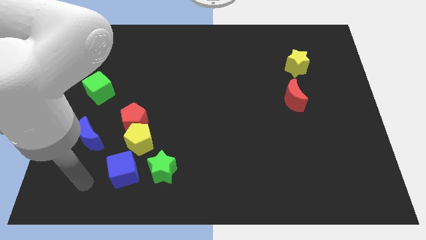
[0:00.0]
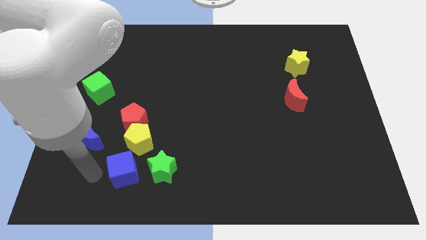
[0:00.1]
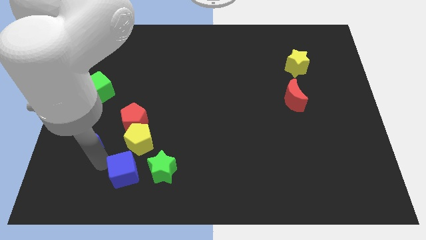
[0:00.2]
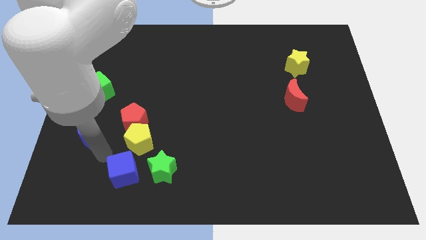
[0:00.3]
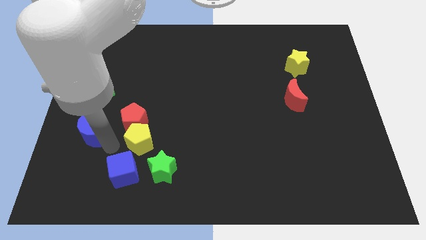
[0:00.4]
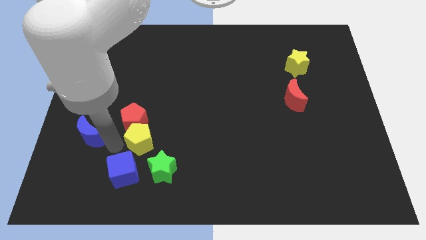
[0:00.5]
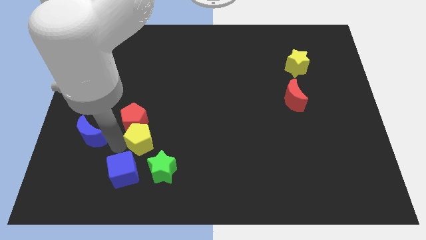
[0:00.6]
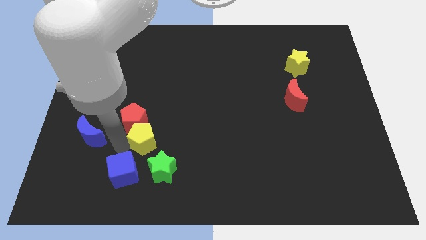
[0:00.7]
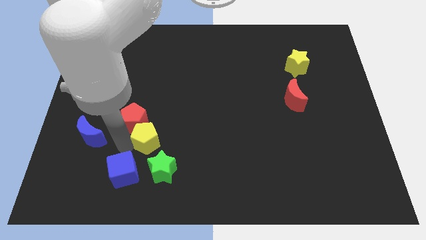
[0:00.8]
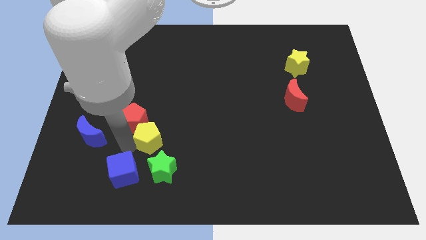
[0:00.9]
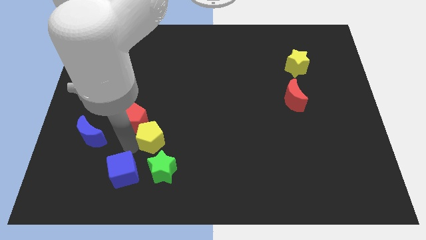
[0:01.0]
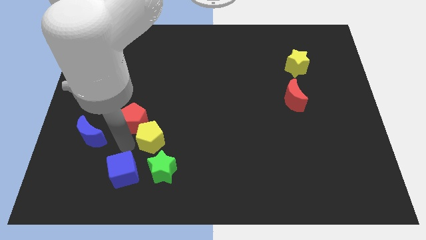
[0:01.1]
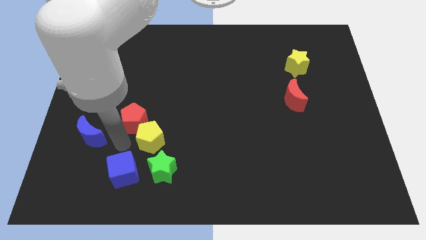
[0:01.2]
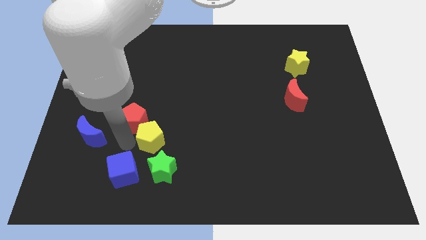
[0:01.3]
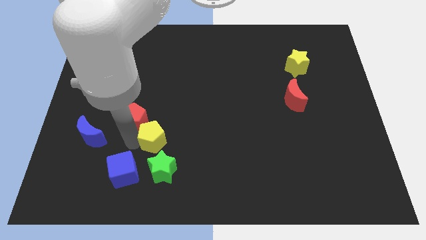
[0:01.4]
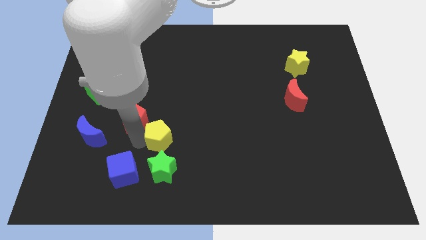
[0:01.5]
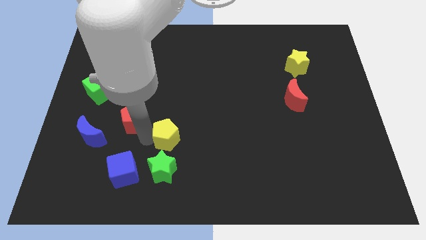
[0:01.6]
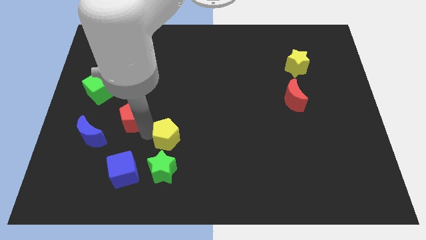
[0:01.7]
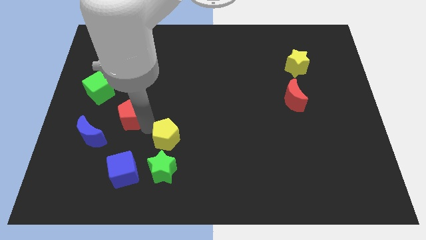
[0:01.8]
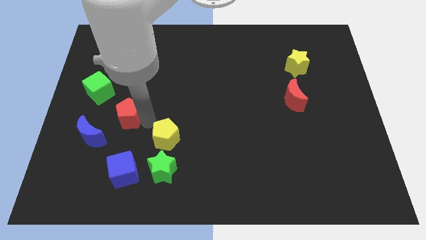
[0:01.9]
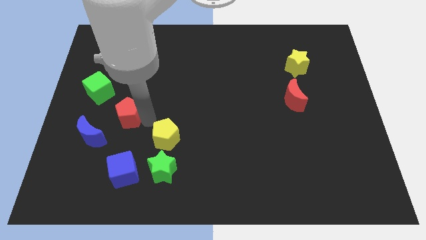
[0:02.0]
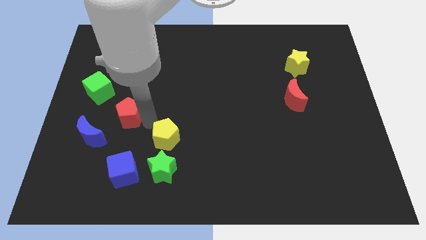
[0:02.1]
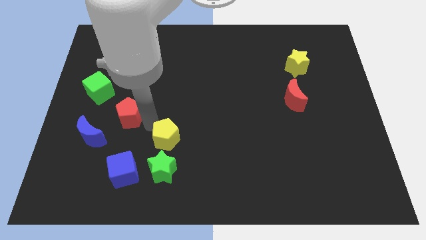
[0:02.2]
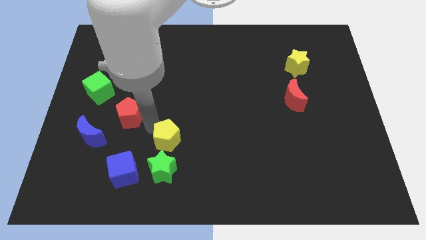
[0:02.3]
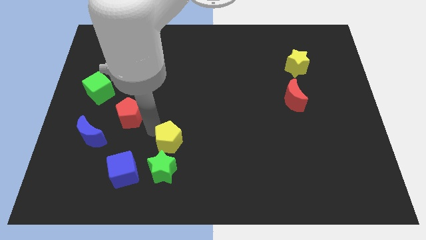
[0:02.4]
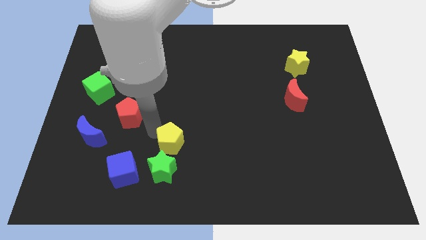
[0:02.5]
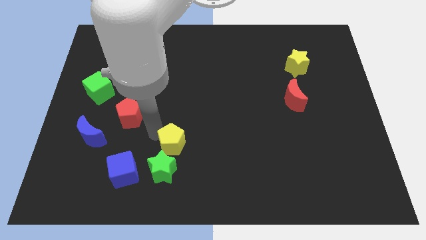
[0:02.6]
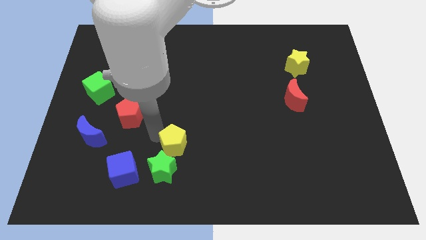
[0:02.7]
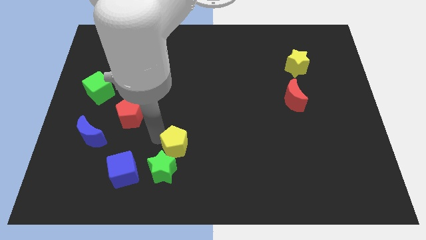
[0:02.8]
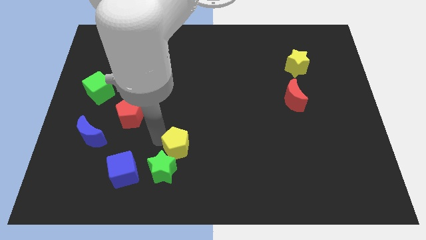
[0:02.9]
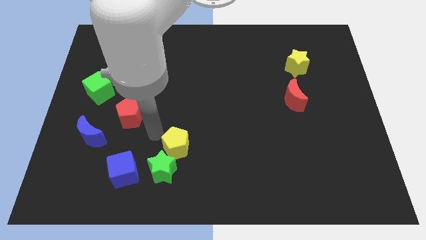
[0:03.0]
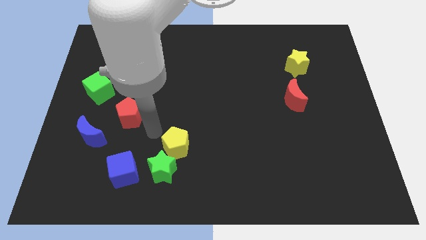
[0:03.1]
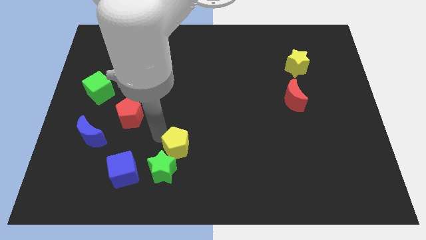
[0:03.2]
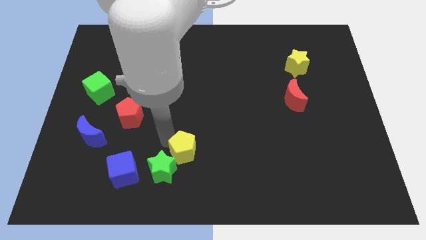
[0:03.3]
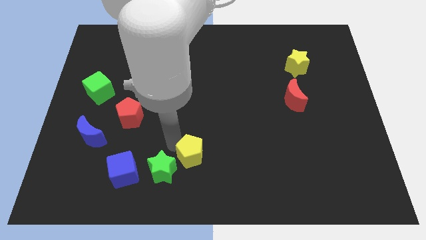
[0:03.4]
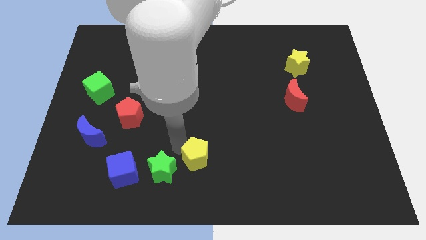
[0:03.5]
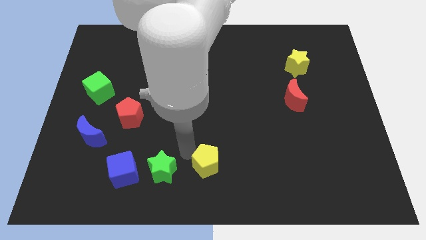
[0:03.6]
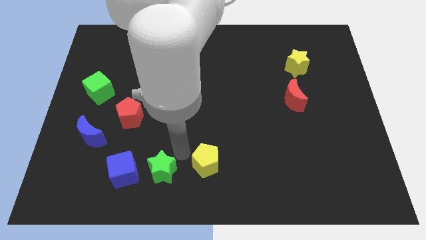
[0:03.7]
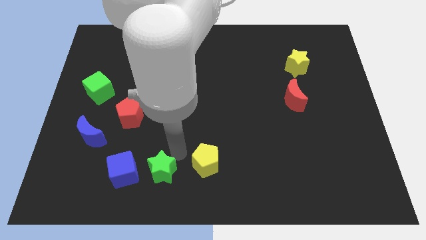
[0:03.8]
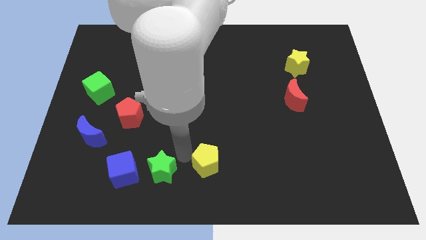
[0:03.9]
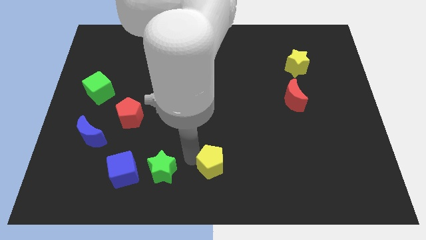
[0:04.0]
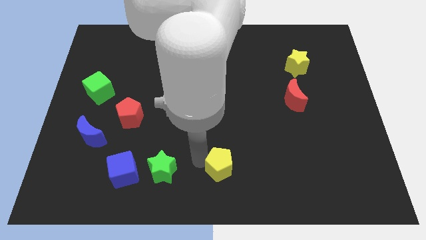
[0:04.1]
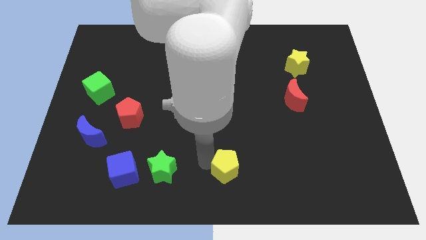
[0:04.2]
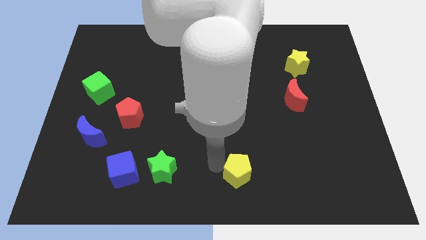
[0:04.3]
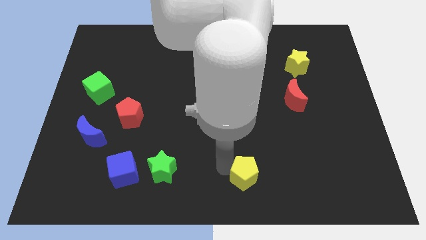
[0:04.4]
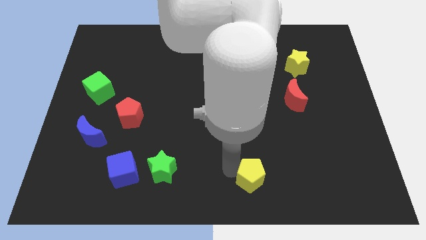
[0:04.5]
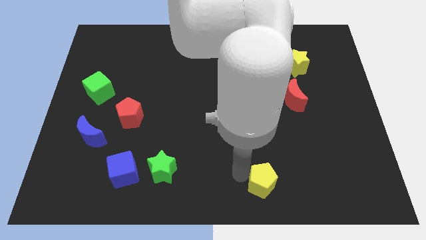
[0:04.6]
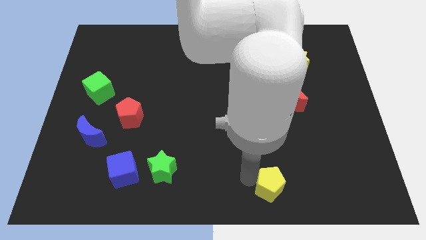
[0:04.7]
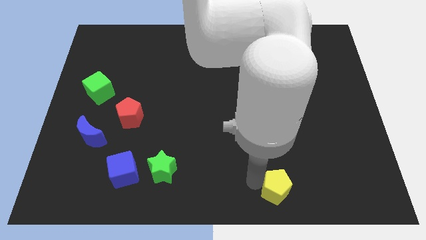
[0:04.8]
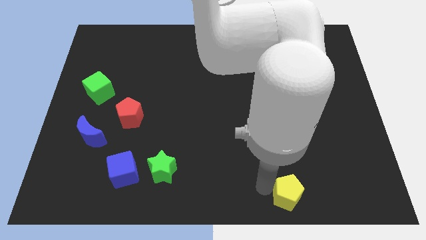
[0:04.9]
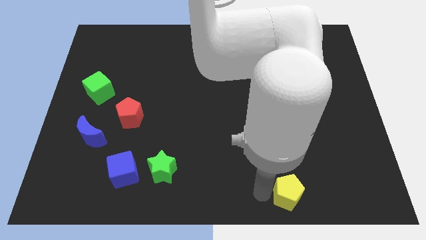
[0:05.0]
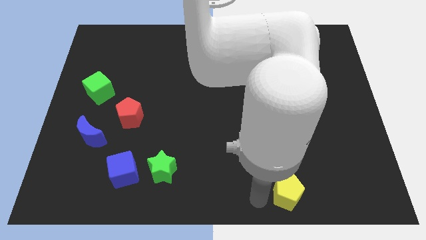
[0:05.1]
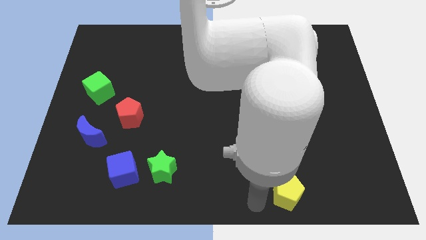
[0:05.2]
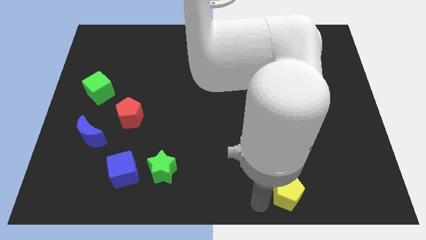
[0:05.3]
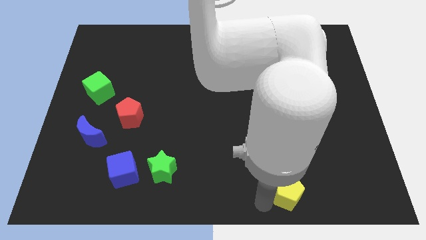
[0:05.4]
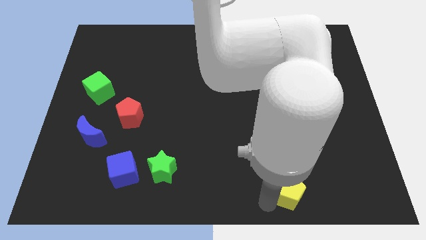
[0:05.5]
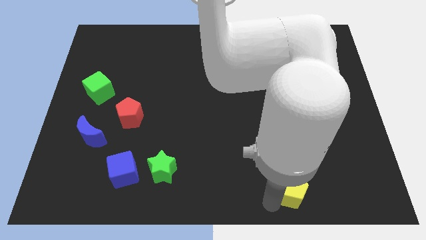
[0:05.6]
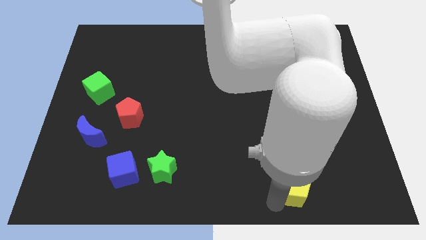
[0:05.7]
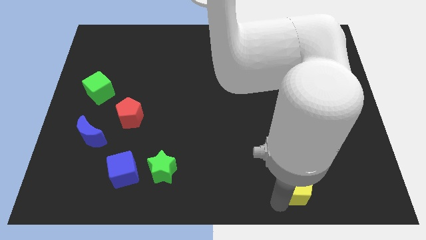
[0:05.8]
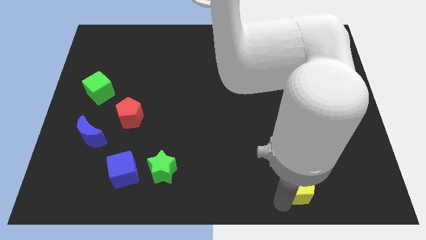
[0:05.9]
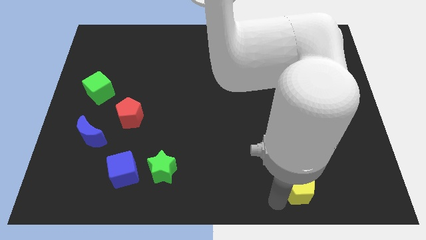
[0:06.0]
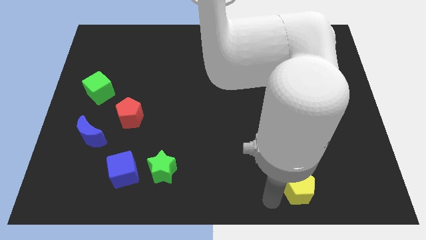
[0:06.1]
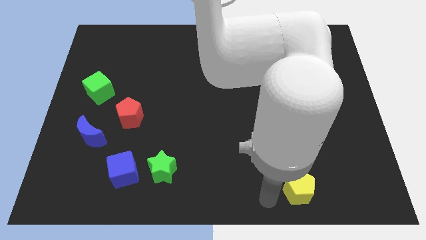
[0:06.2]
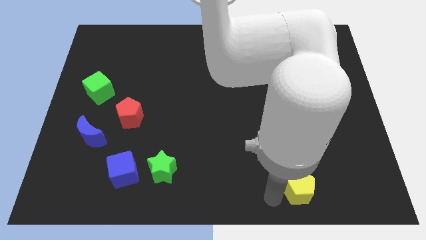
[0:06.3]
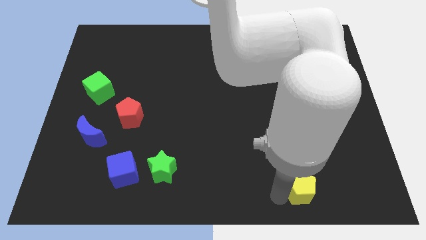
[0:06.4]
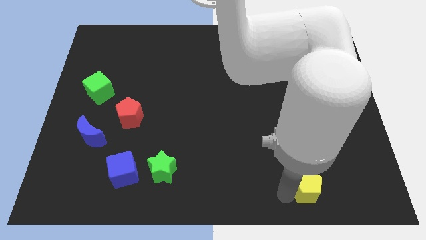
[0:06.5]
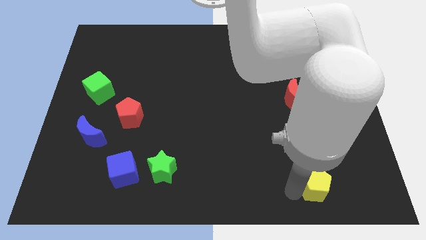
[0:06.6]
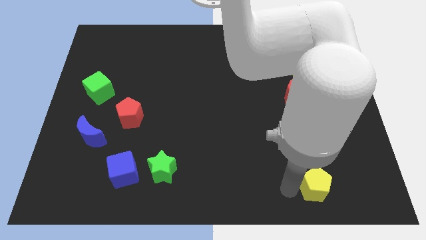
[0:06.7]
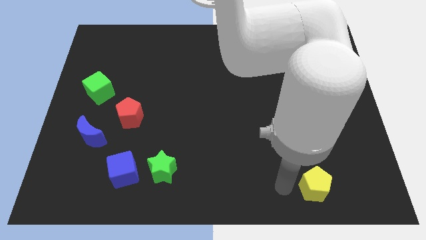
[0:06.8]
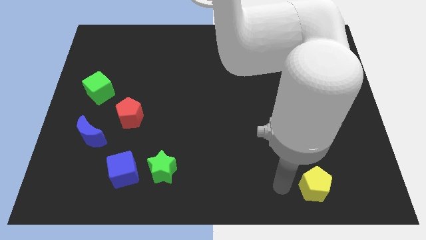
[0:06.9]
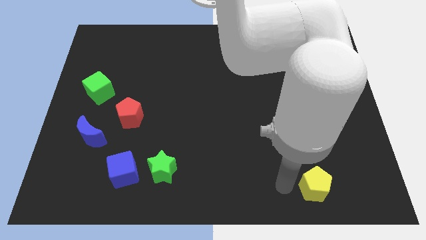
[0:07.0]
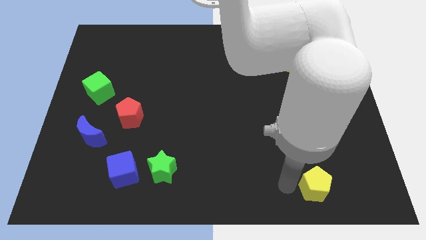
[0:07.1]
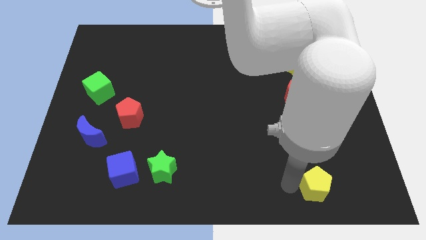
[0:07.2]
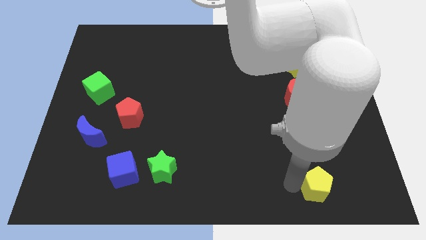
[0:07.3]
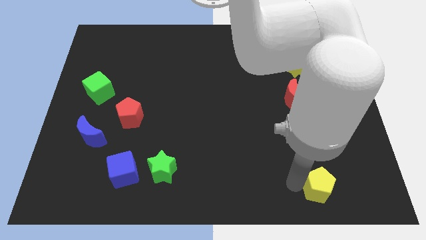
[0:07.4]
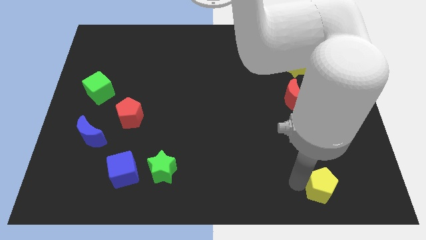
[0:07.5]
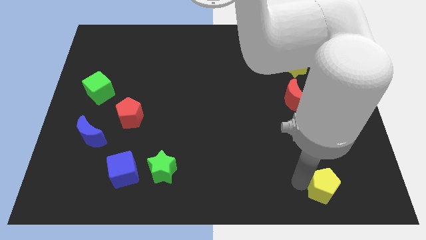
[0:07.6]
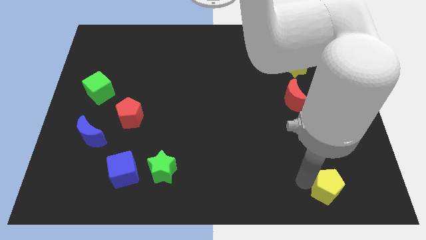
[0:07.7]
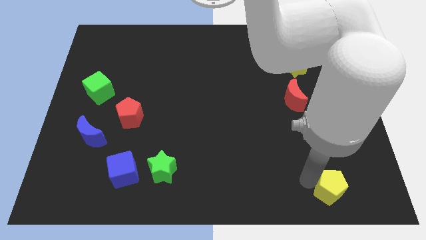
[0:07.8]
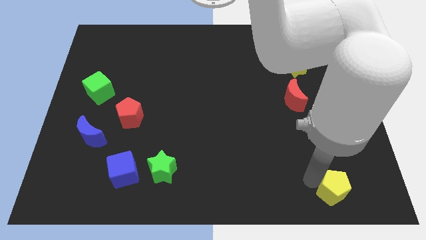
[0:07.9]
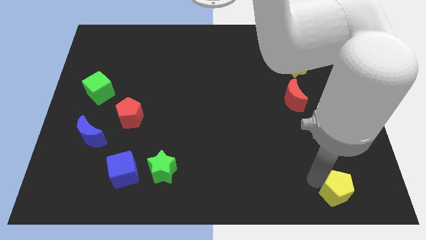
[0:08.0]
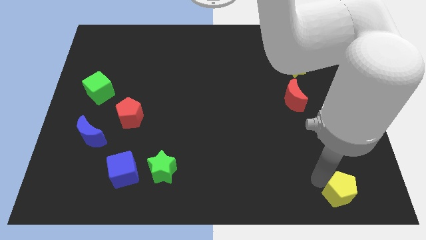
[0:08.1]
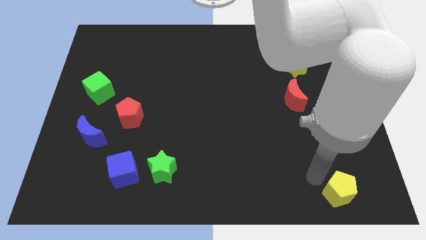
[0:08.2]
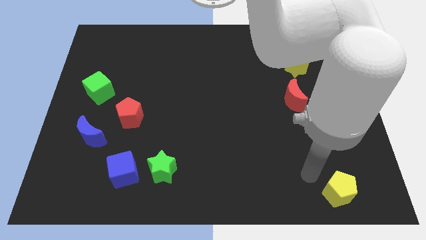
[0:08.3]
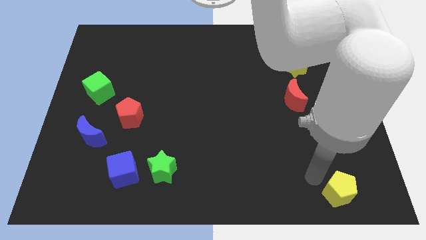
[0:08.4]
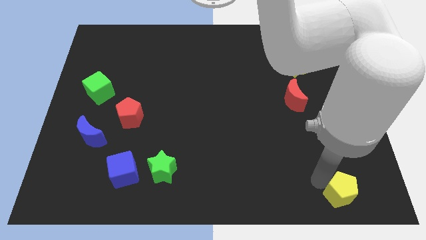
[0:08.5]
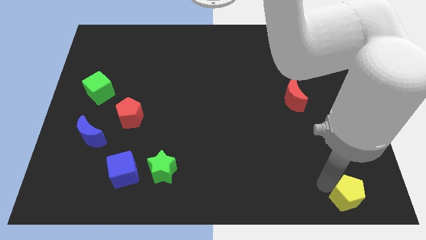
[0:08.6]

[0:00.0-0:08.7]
put the yellow pentagon to the bottom right corner
